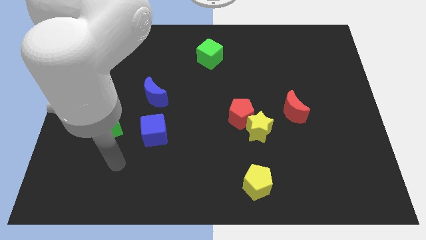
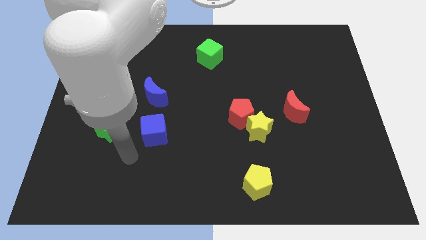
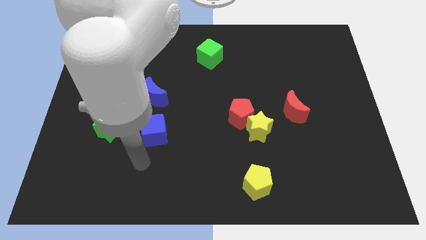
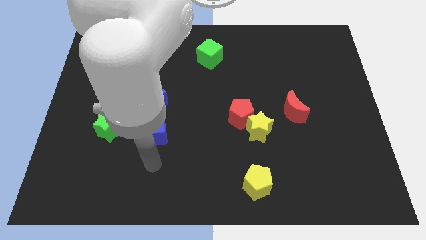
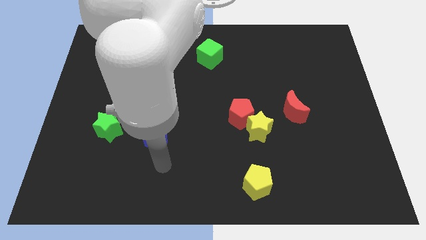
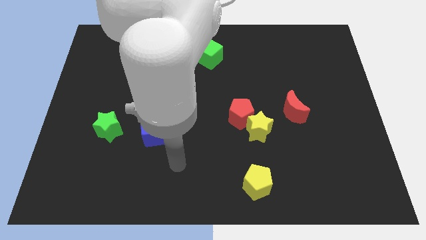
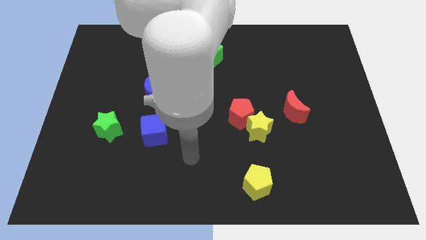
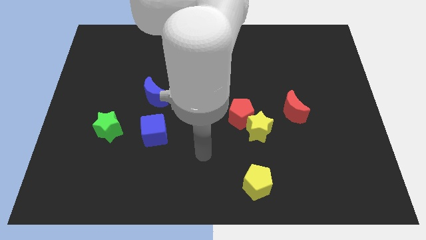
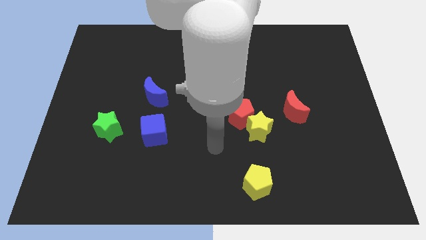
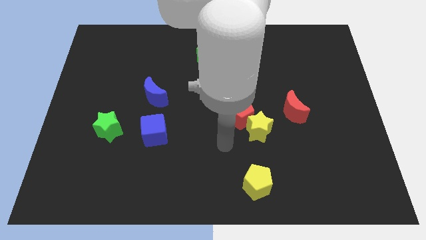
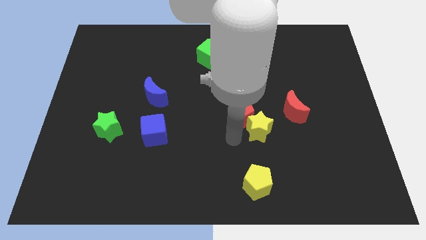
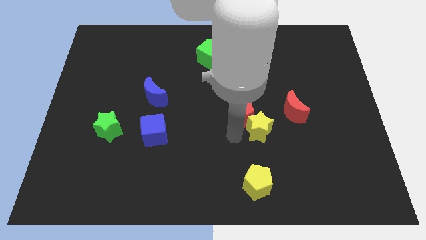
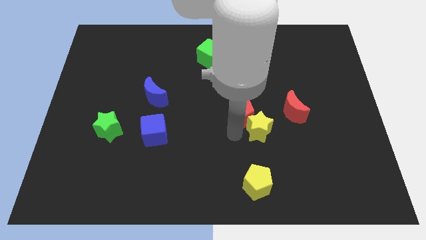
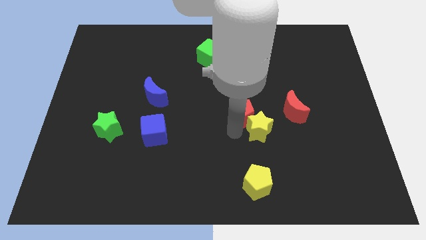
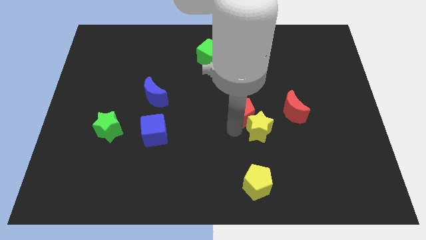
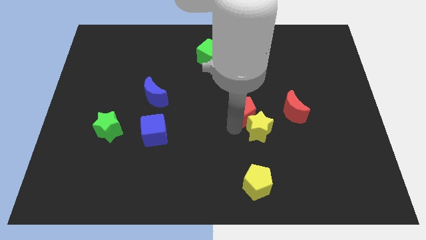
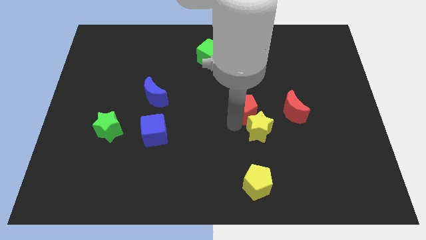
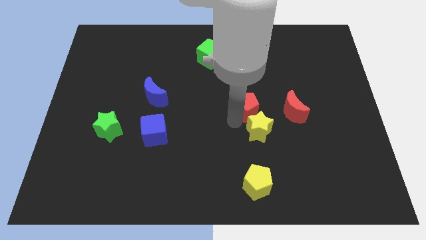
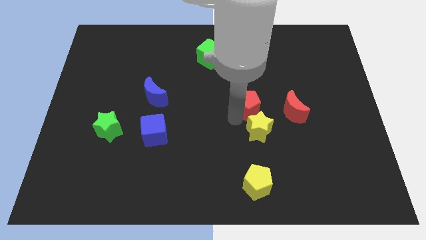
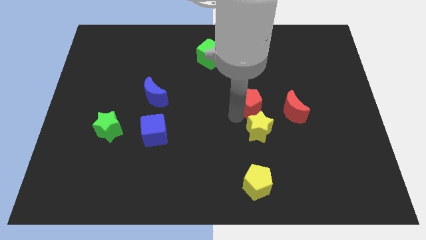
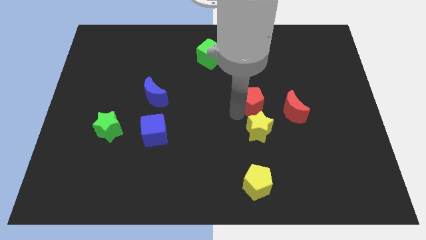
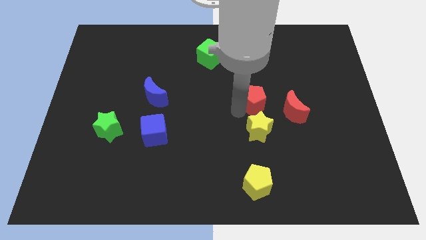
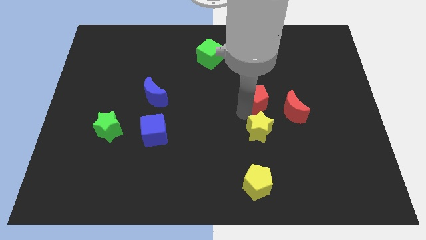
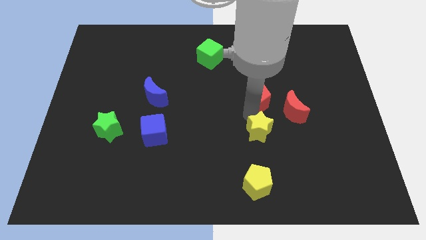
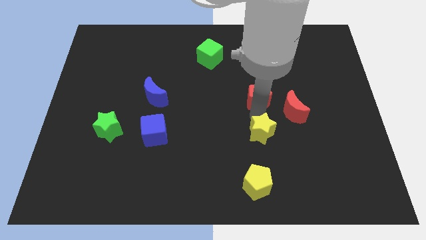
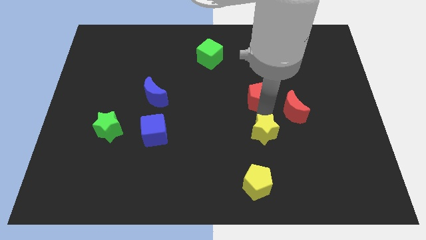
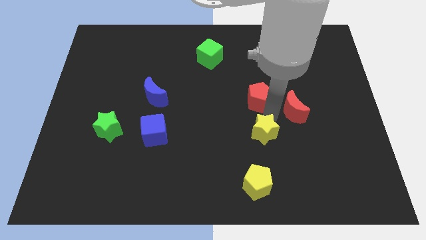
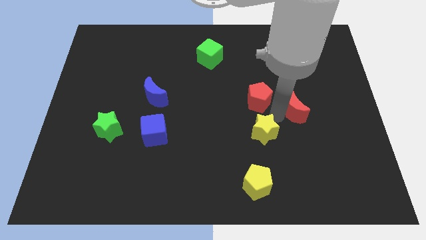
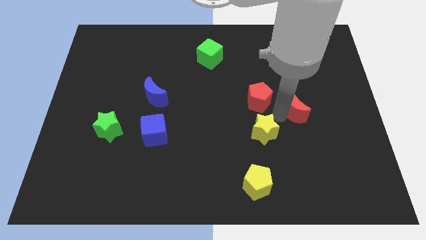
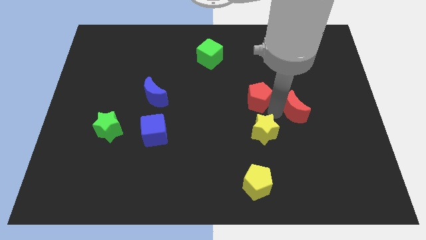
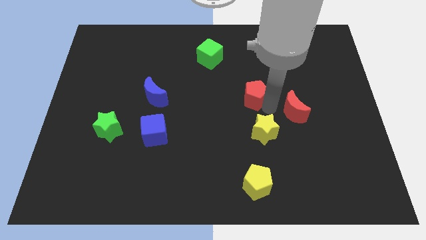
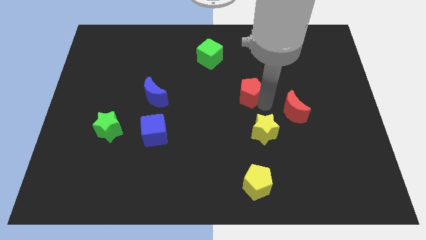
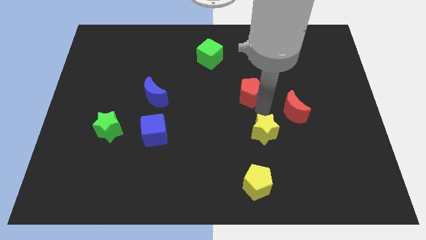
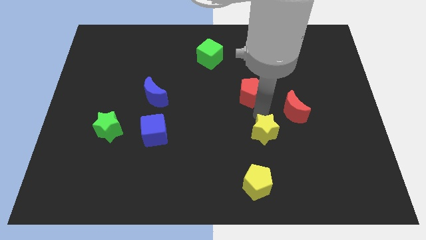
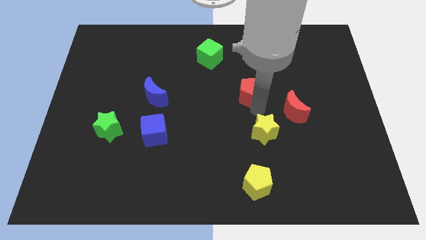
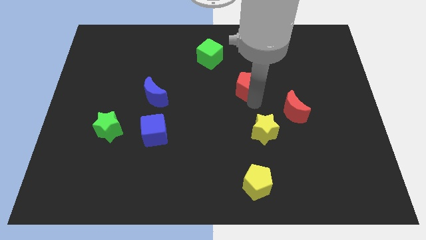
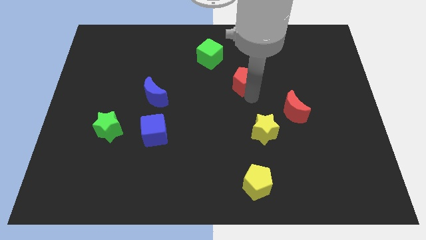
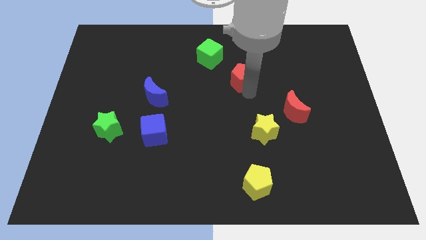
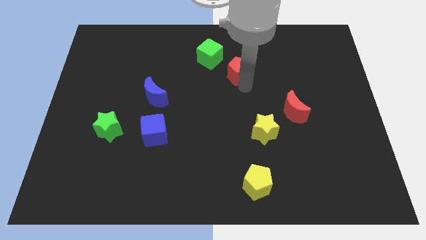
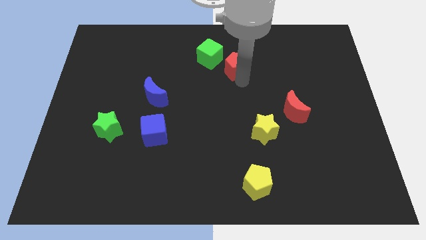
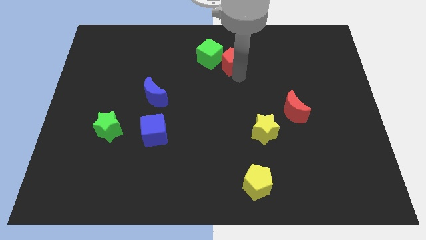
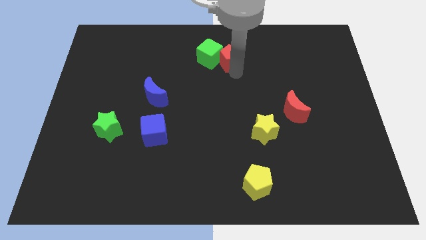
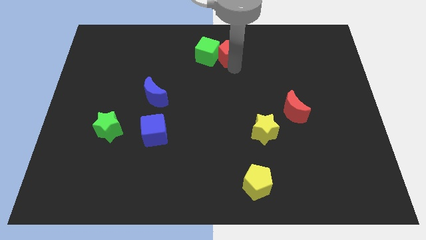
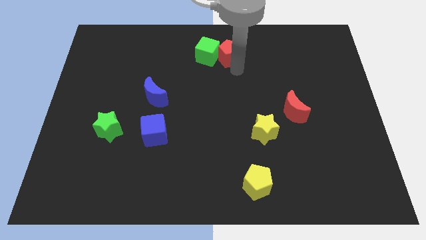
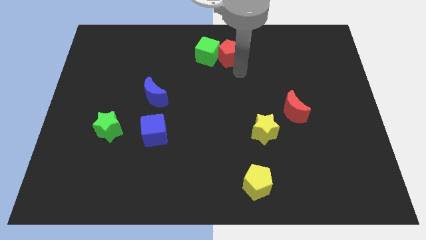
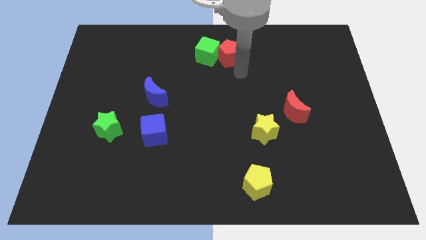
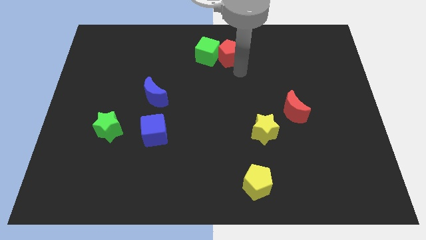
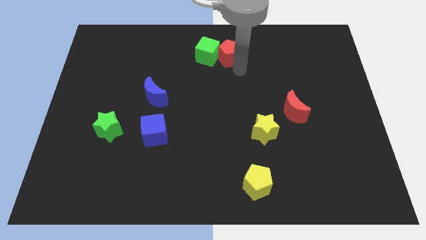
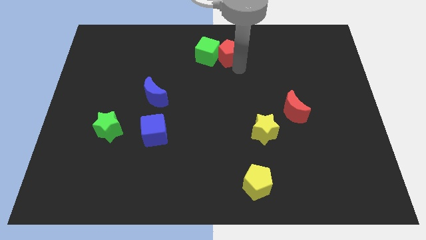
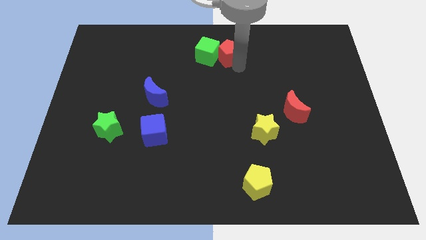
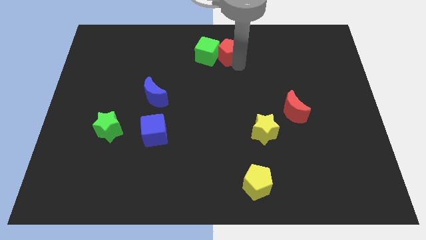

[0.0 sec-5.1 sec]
push the red pentagon to the top

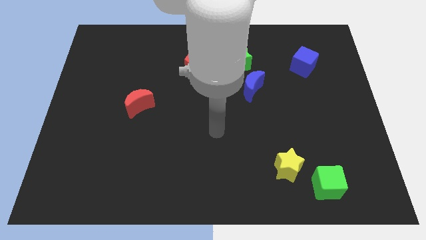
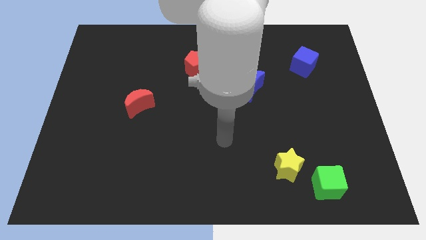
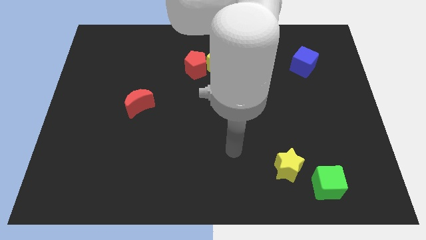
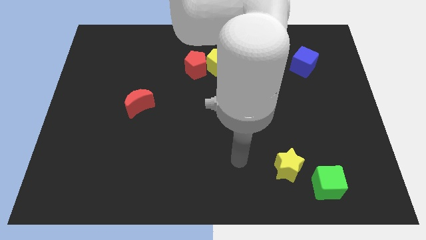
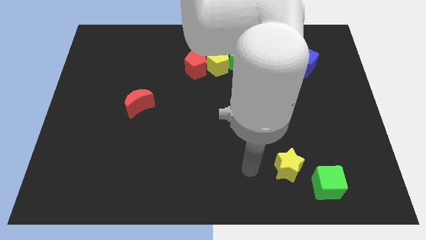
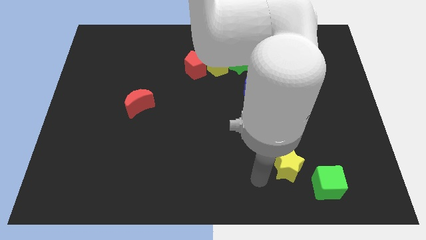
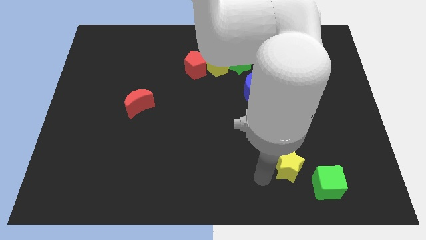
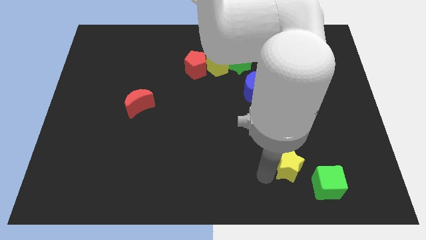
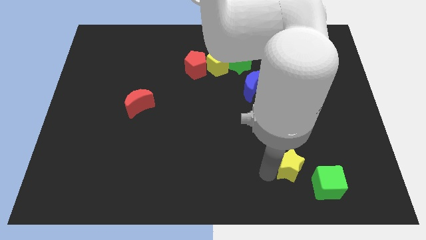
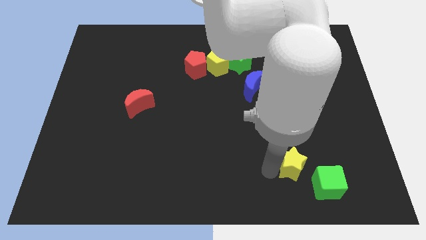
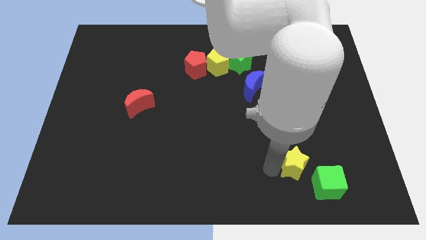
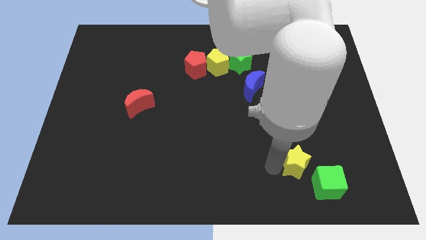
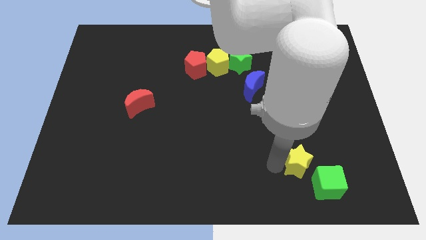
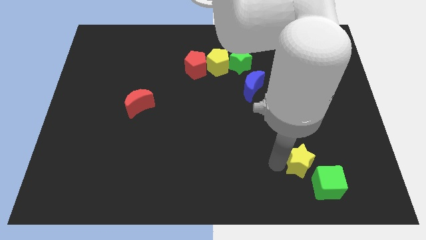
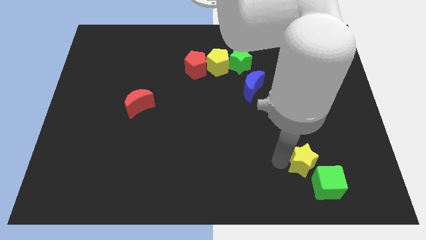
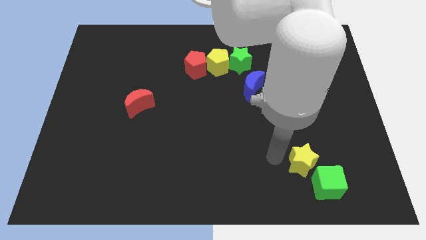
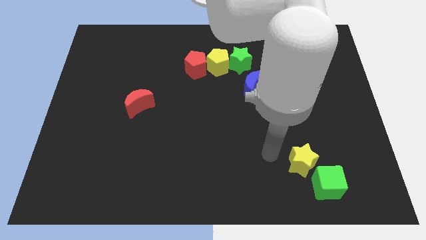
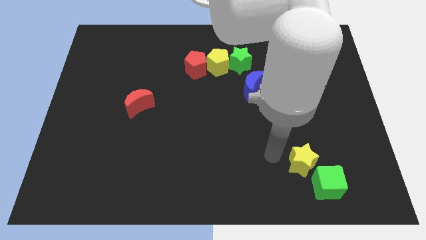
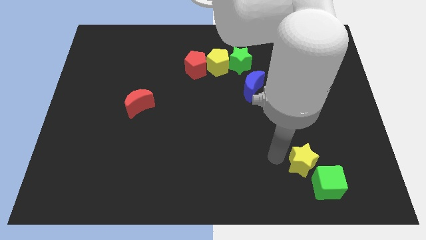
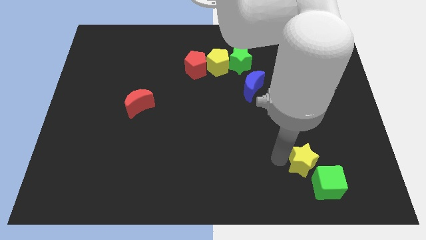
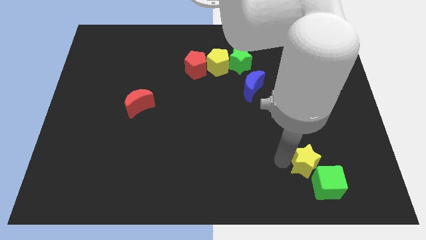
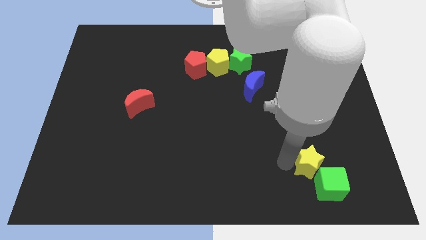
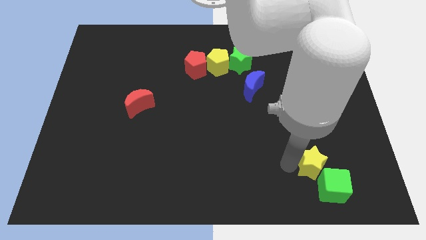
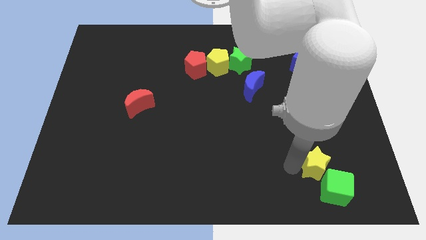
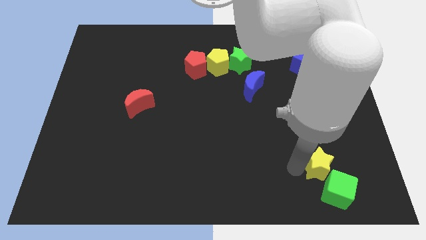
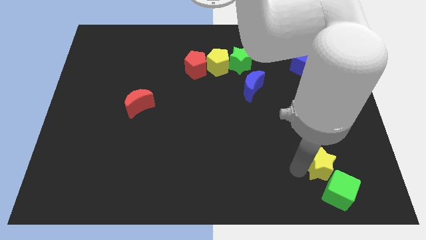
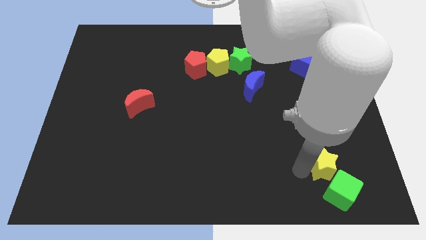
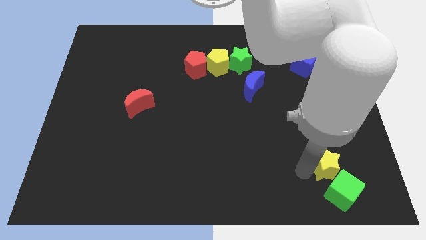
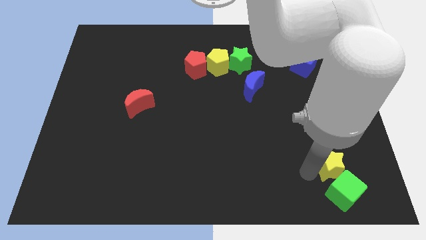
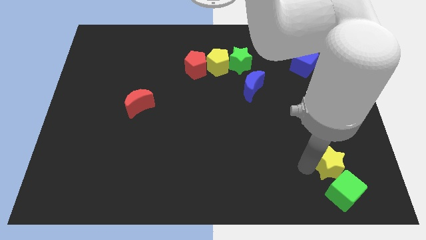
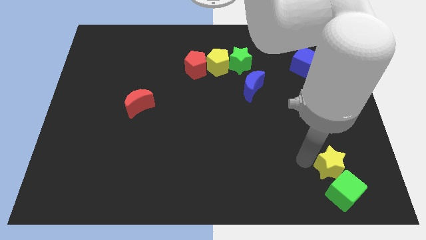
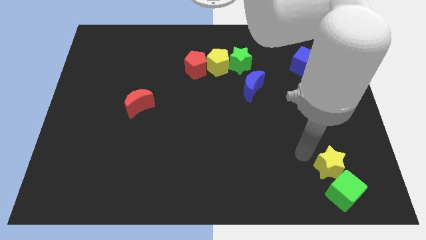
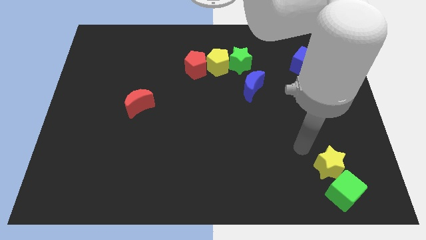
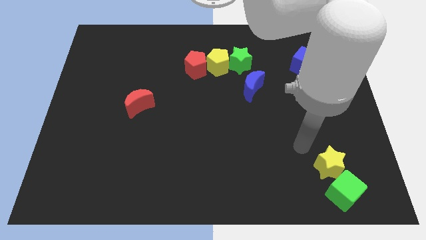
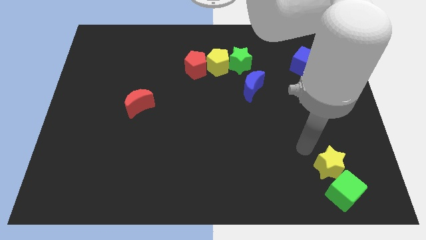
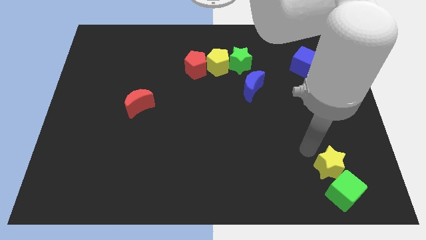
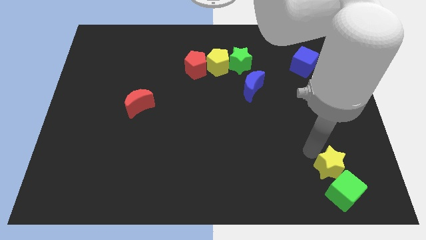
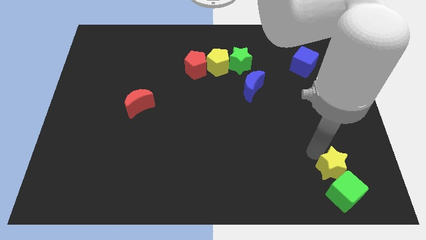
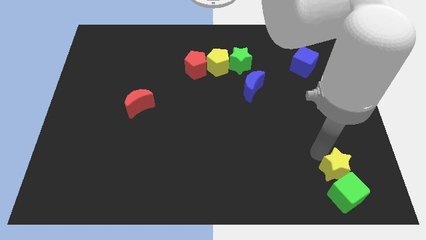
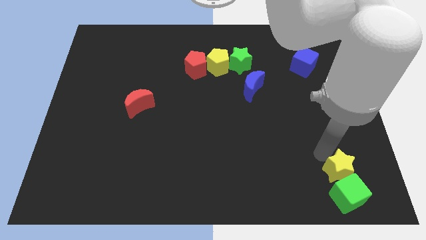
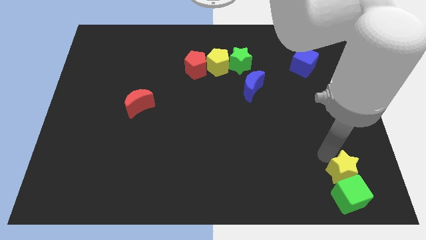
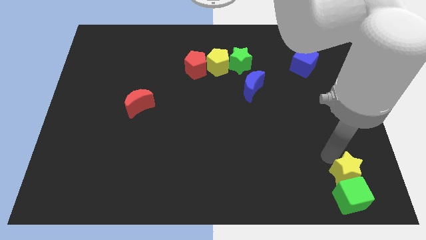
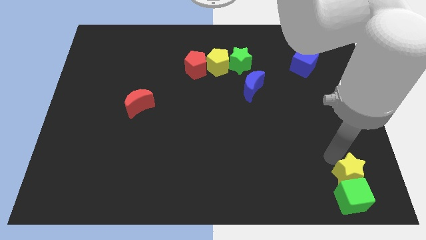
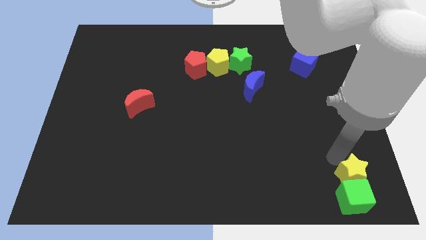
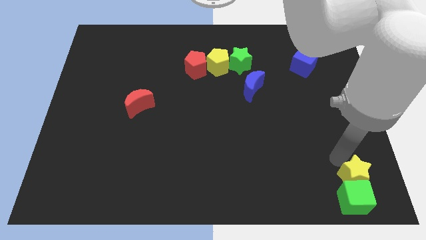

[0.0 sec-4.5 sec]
slide the yellow star to the lower right corner
